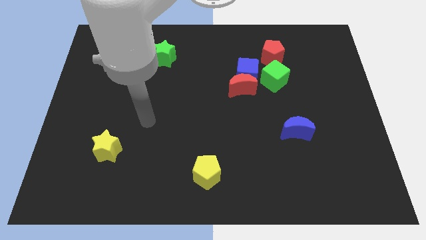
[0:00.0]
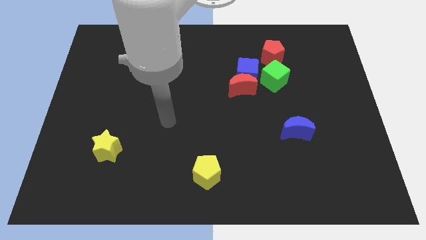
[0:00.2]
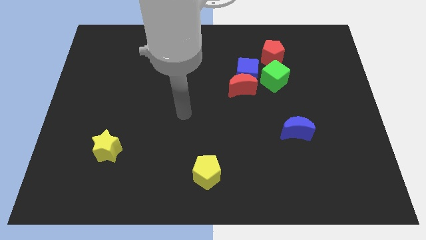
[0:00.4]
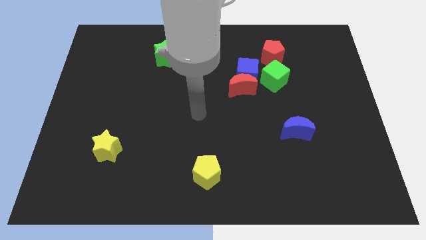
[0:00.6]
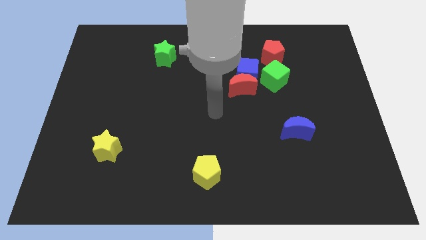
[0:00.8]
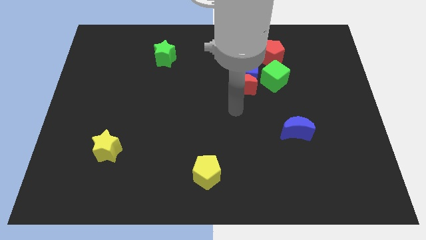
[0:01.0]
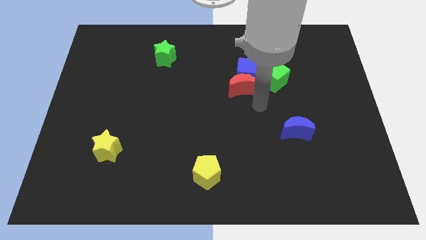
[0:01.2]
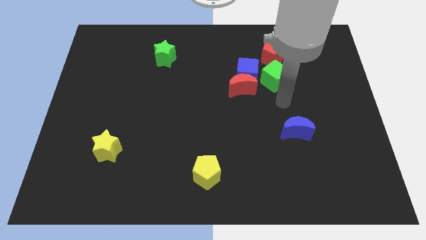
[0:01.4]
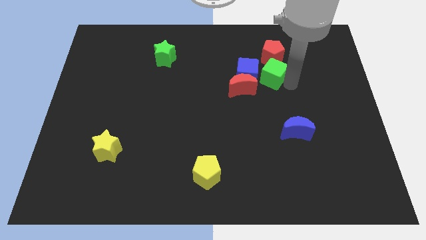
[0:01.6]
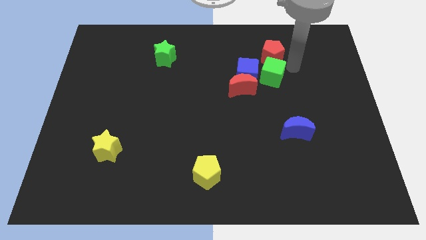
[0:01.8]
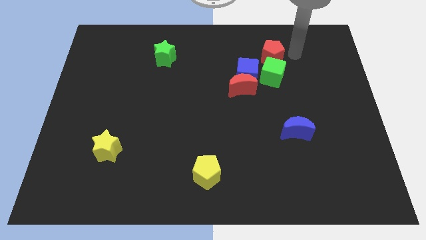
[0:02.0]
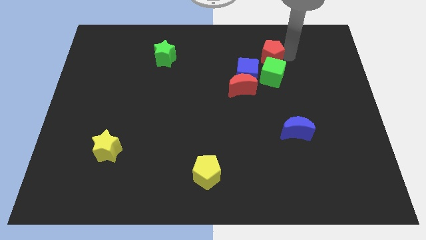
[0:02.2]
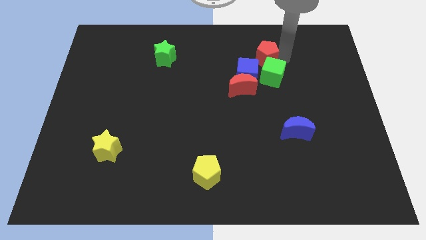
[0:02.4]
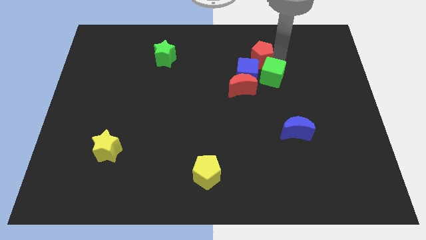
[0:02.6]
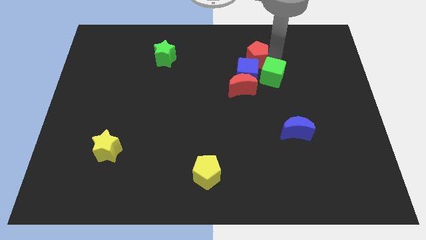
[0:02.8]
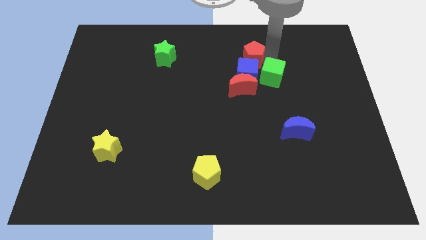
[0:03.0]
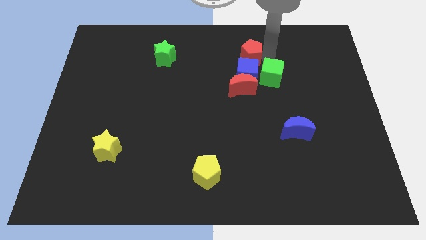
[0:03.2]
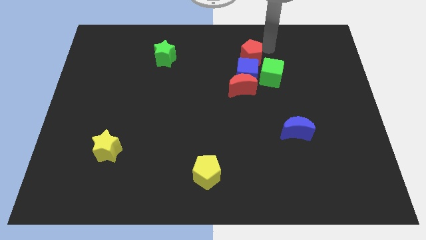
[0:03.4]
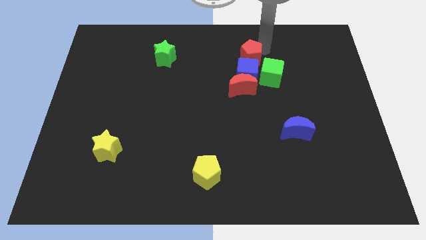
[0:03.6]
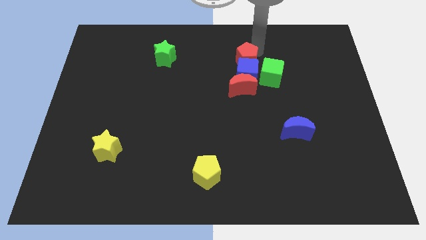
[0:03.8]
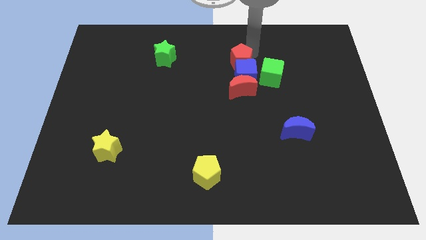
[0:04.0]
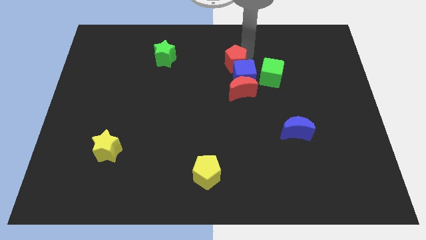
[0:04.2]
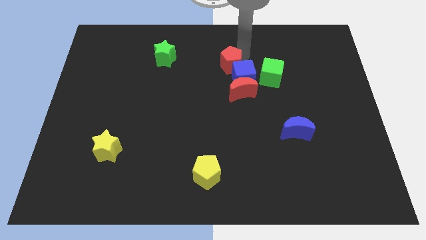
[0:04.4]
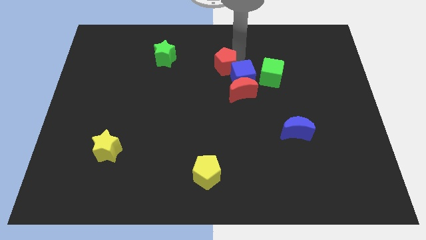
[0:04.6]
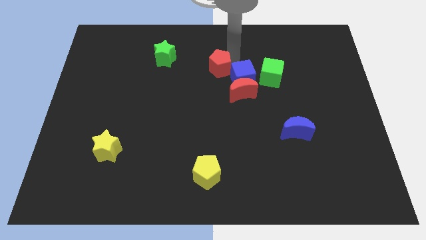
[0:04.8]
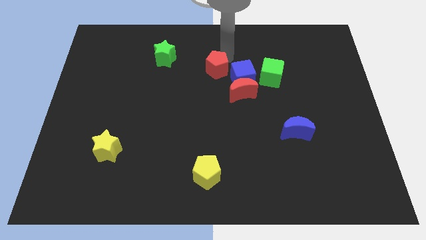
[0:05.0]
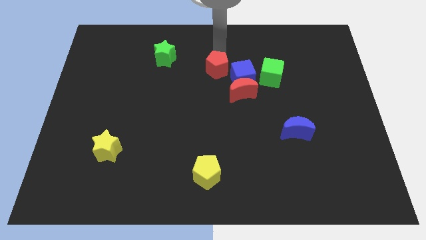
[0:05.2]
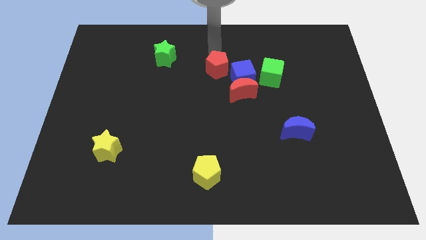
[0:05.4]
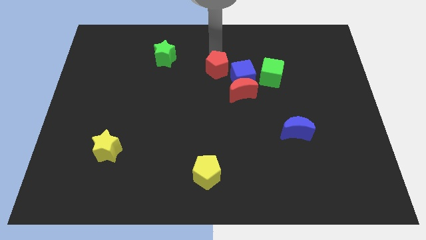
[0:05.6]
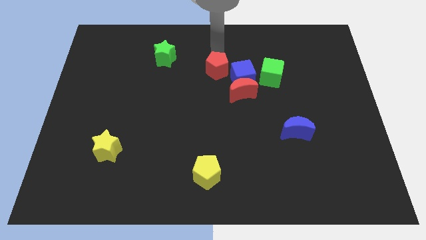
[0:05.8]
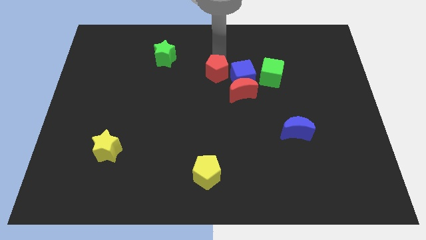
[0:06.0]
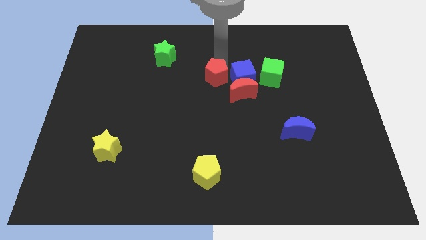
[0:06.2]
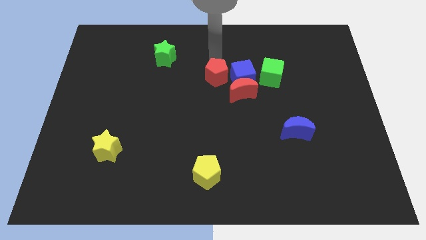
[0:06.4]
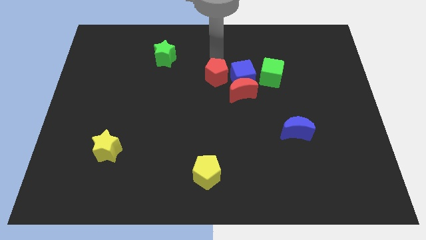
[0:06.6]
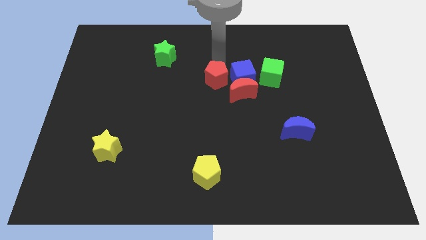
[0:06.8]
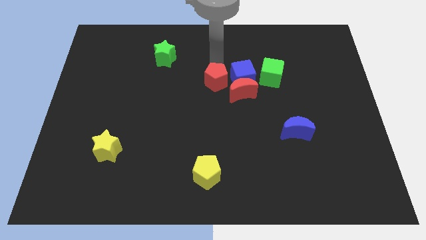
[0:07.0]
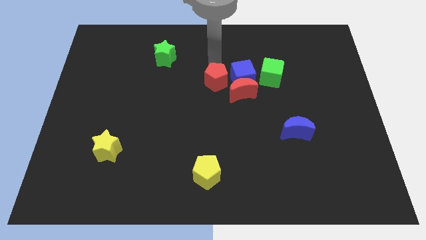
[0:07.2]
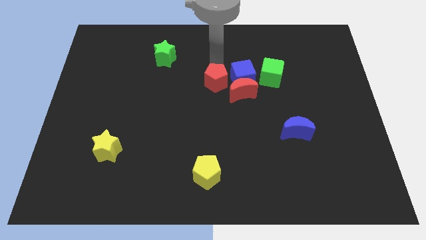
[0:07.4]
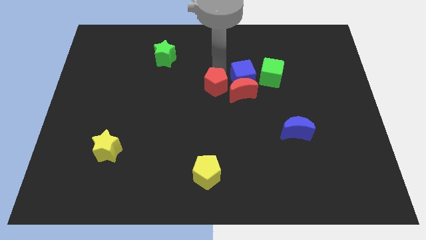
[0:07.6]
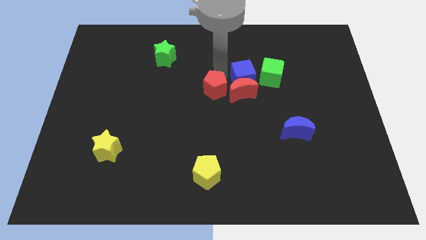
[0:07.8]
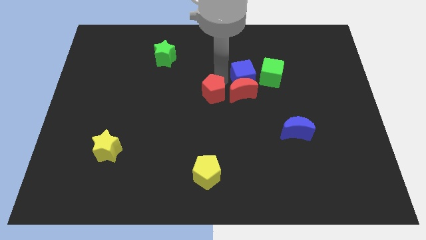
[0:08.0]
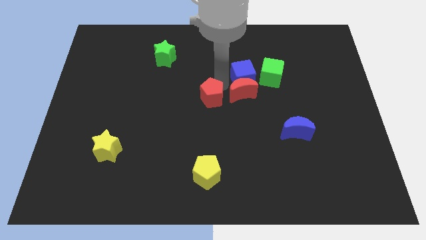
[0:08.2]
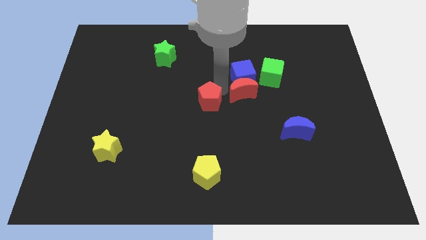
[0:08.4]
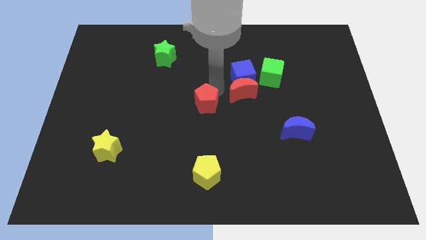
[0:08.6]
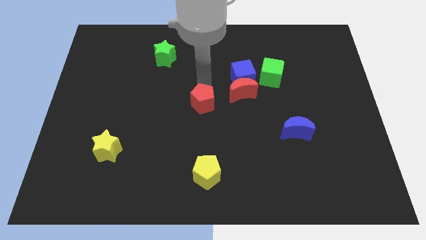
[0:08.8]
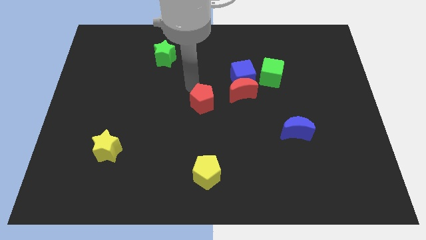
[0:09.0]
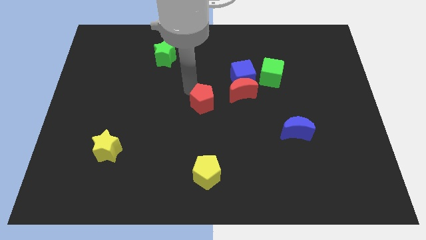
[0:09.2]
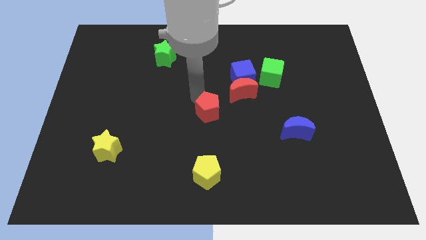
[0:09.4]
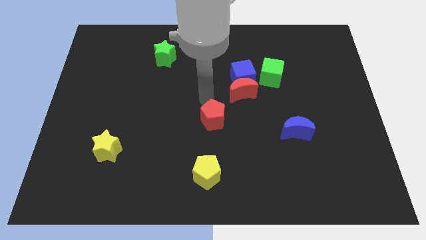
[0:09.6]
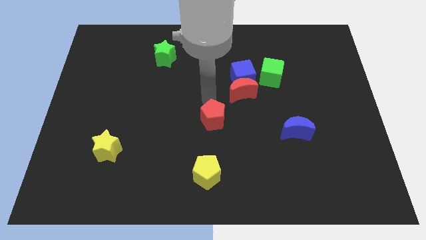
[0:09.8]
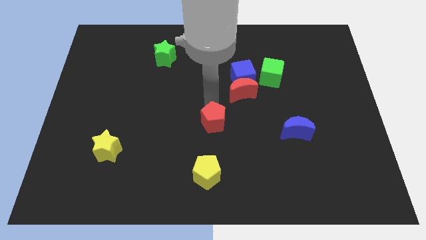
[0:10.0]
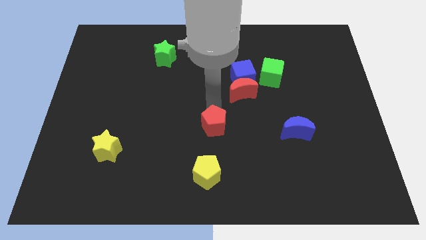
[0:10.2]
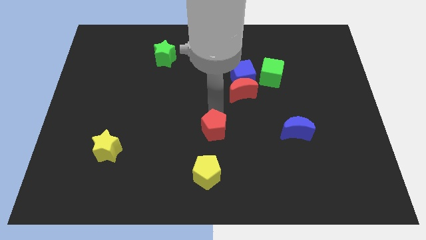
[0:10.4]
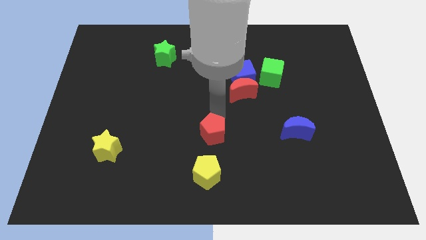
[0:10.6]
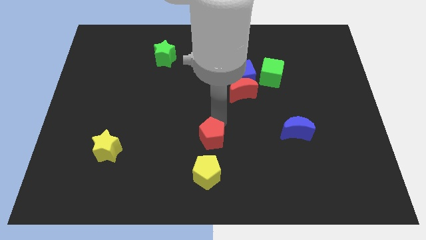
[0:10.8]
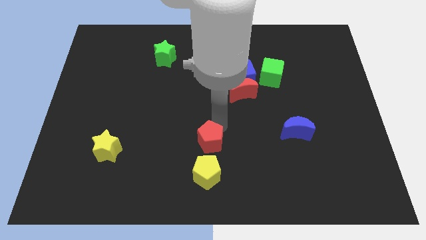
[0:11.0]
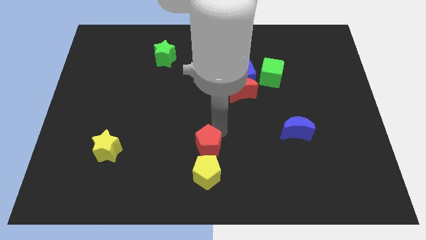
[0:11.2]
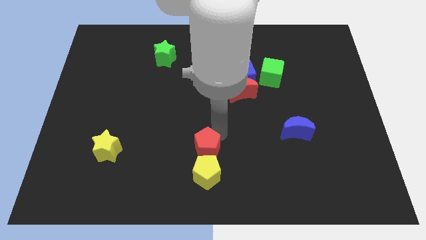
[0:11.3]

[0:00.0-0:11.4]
put the red pentagon towards the yellow pentagon

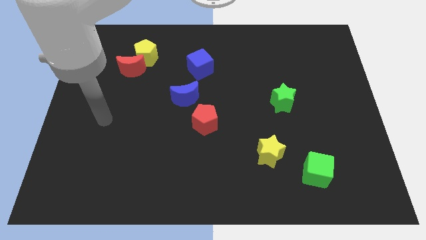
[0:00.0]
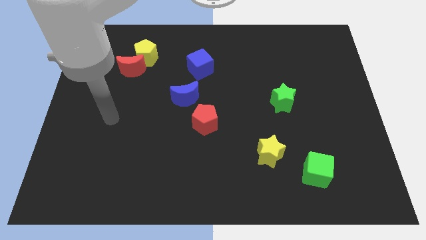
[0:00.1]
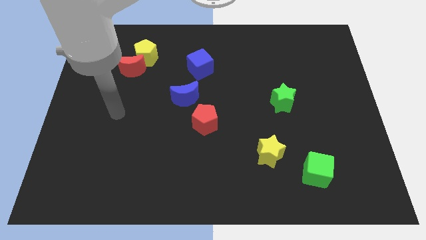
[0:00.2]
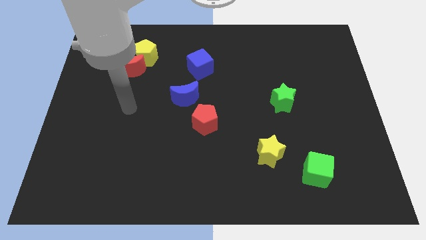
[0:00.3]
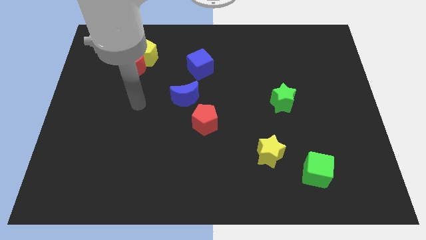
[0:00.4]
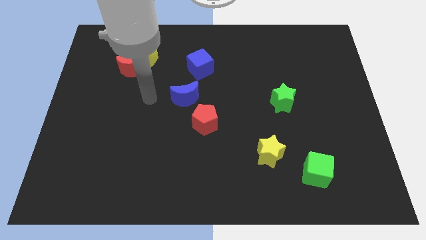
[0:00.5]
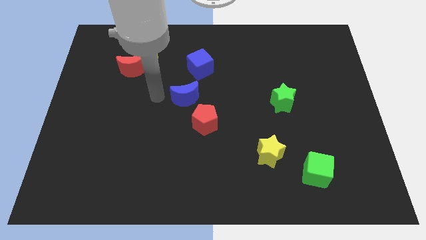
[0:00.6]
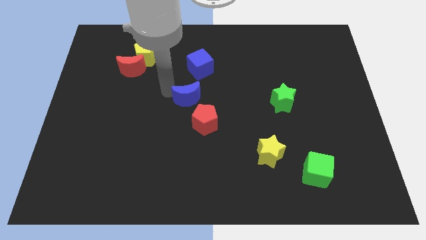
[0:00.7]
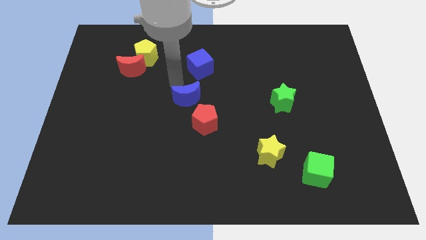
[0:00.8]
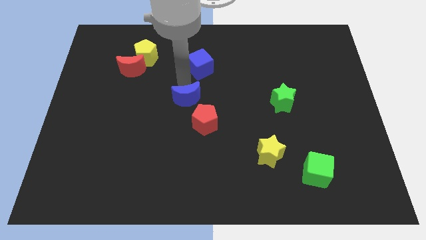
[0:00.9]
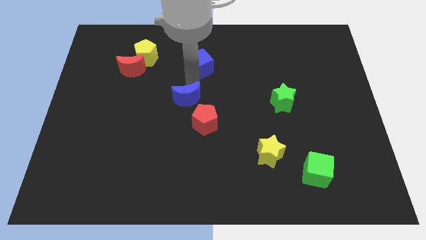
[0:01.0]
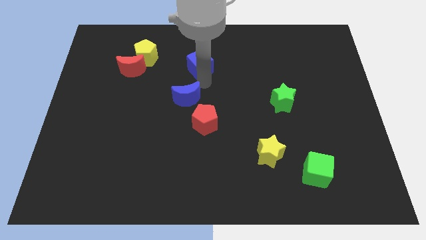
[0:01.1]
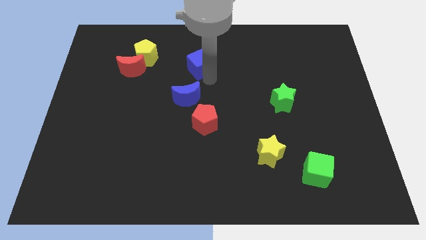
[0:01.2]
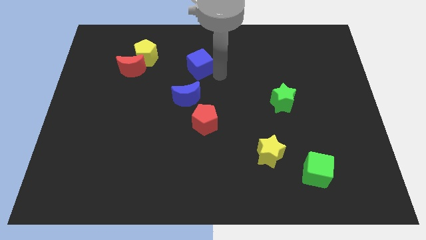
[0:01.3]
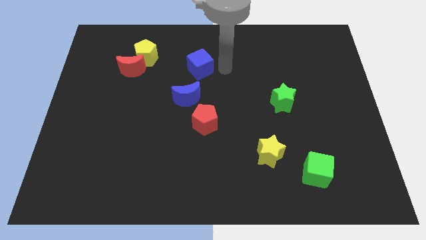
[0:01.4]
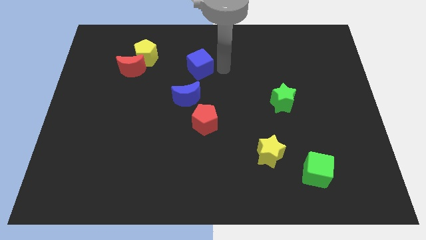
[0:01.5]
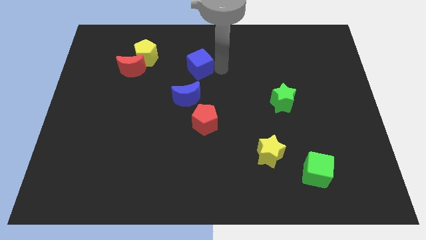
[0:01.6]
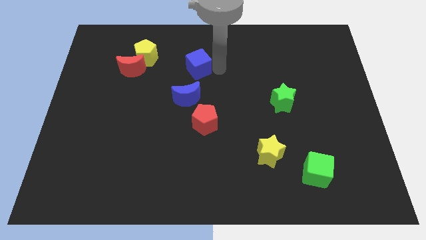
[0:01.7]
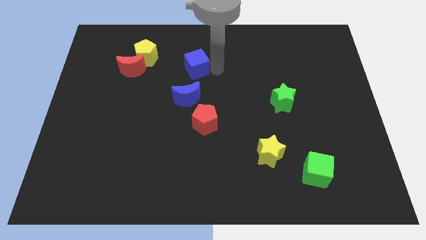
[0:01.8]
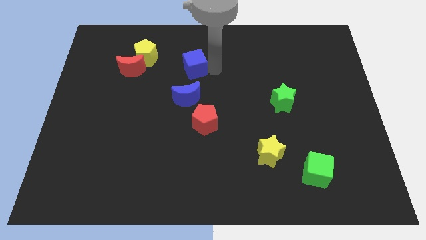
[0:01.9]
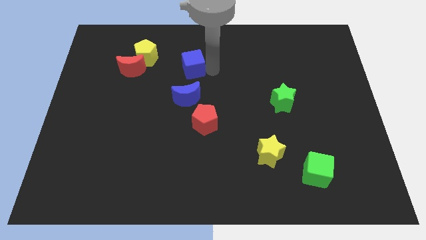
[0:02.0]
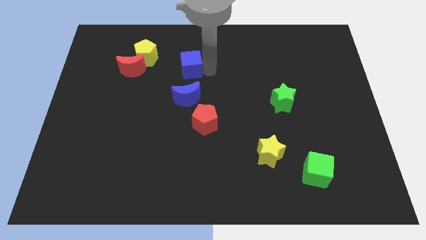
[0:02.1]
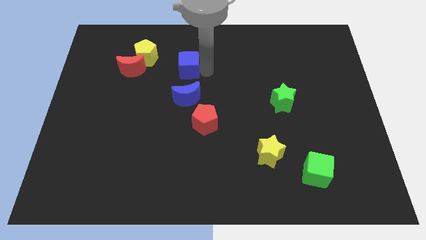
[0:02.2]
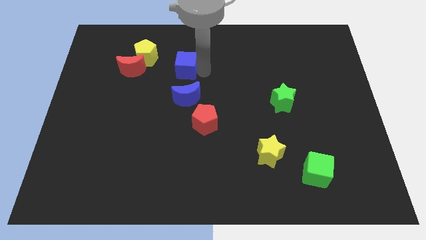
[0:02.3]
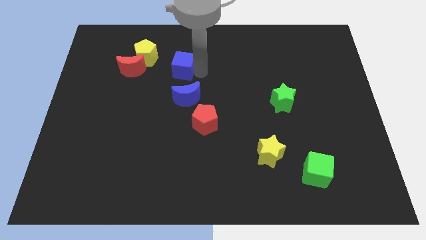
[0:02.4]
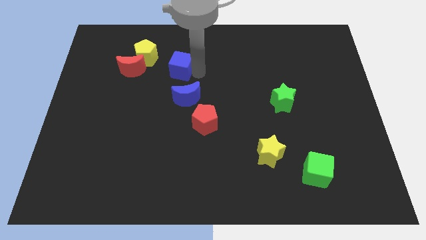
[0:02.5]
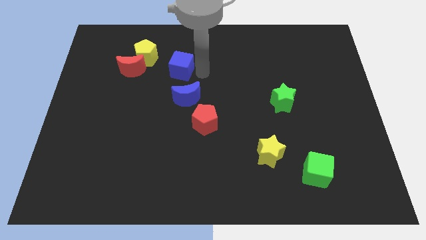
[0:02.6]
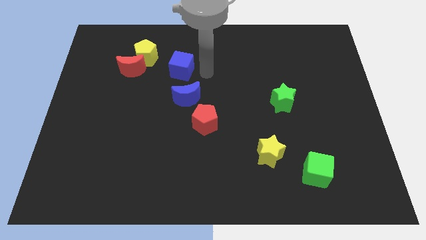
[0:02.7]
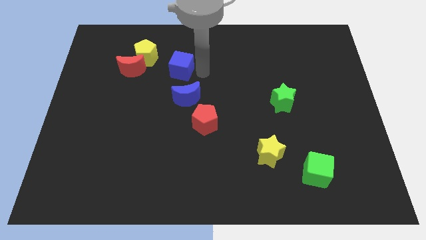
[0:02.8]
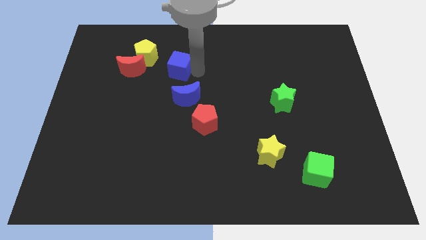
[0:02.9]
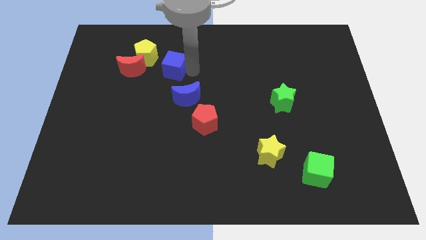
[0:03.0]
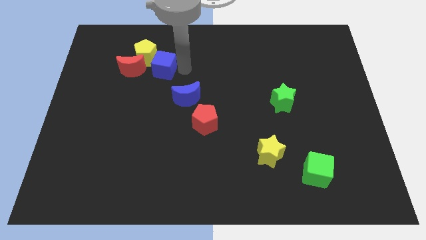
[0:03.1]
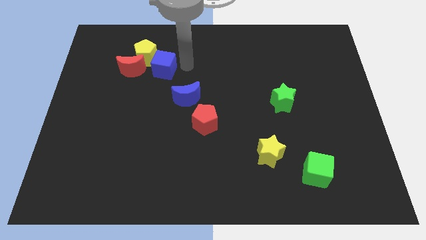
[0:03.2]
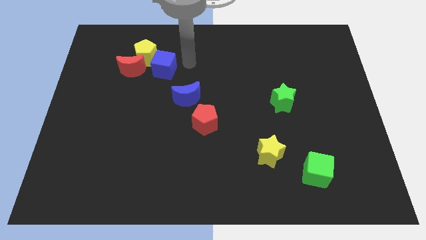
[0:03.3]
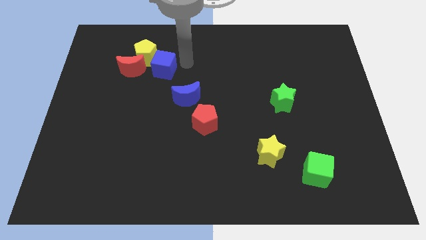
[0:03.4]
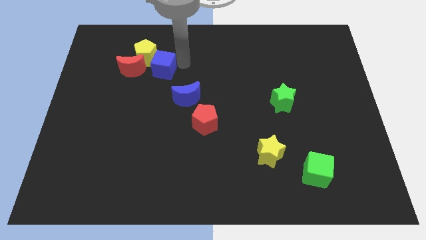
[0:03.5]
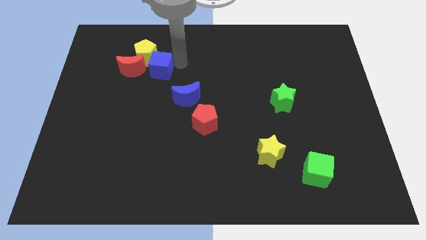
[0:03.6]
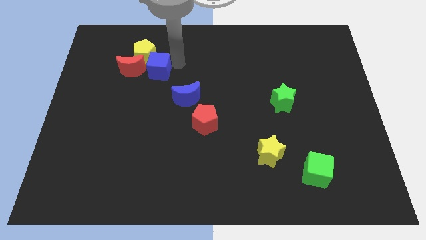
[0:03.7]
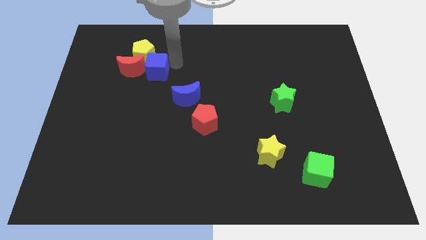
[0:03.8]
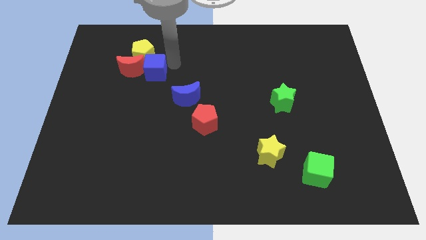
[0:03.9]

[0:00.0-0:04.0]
put the blue cube next to the red moon
